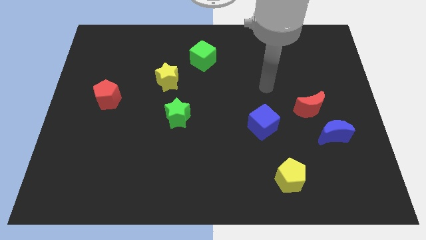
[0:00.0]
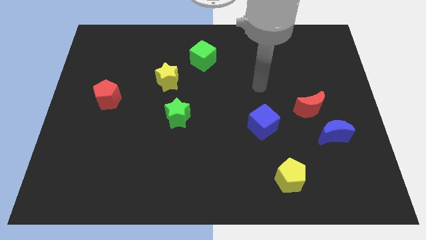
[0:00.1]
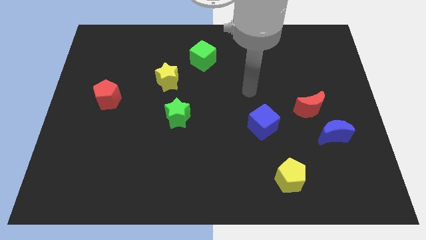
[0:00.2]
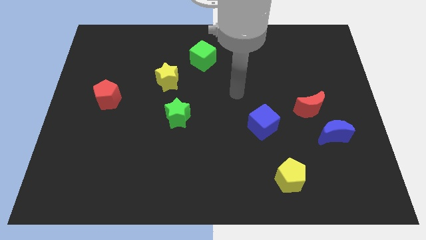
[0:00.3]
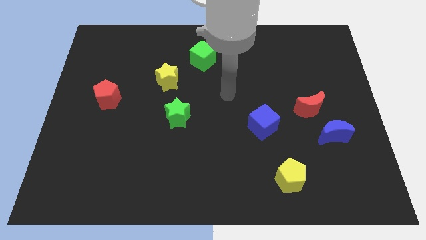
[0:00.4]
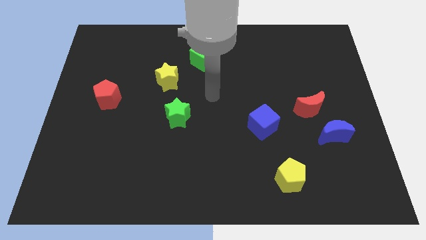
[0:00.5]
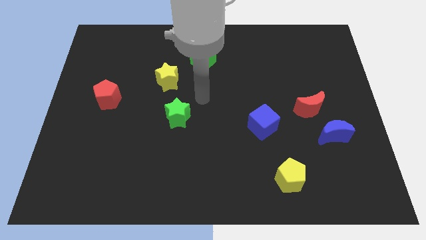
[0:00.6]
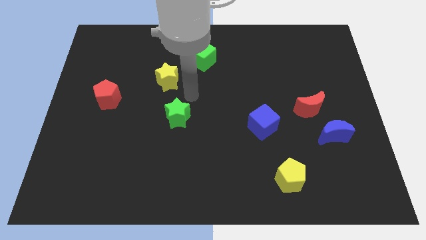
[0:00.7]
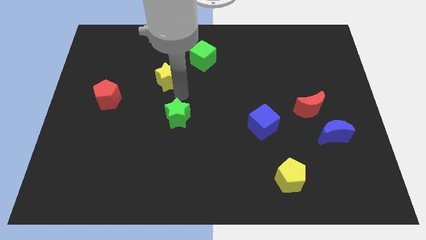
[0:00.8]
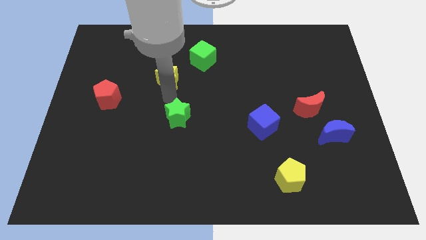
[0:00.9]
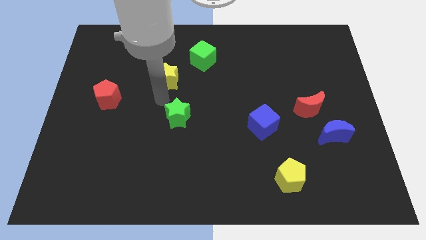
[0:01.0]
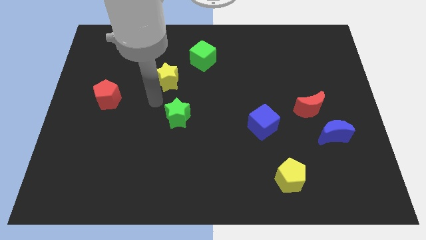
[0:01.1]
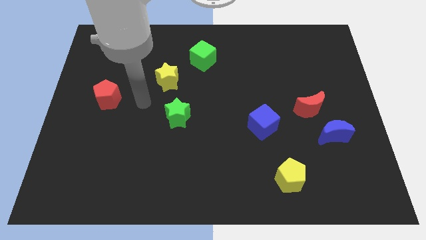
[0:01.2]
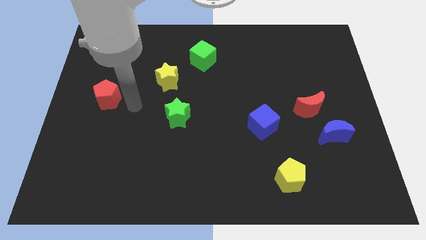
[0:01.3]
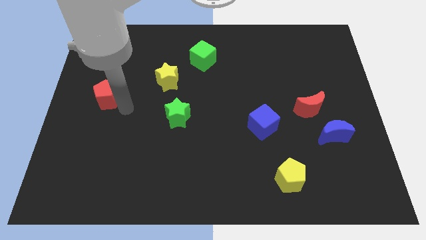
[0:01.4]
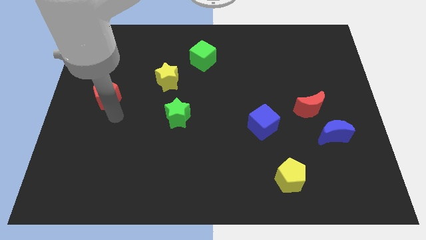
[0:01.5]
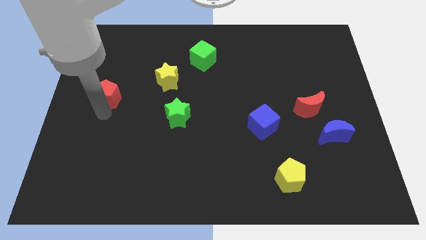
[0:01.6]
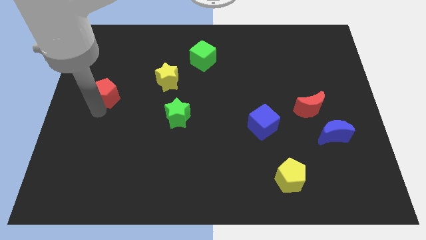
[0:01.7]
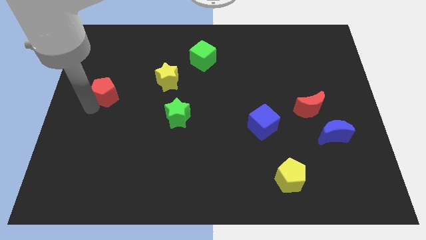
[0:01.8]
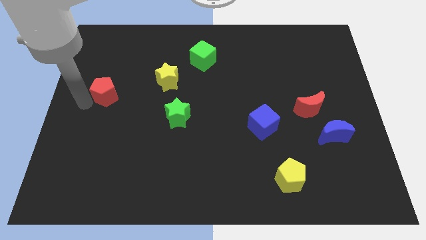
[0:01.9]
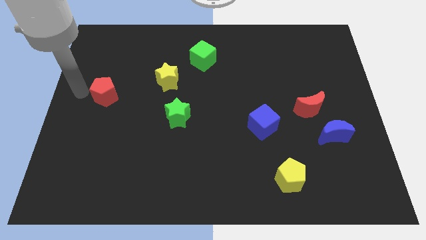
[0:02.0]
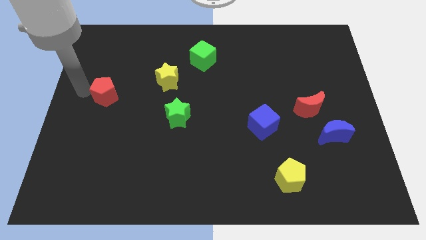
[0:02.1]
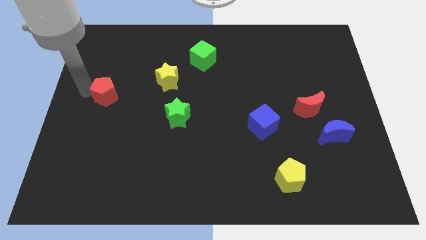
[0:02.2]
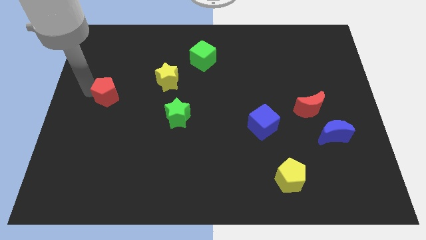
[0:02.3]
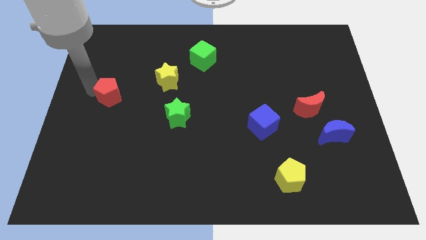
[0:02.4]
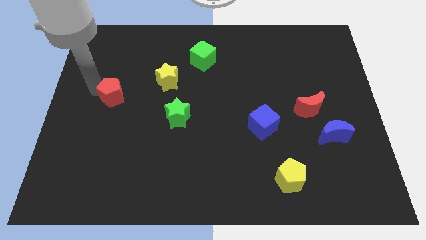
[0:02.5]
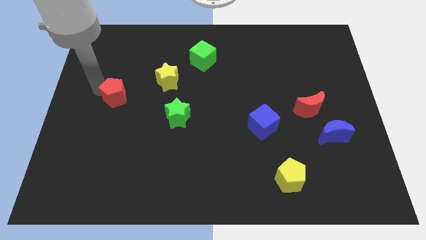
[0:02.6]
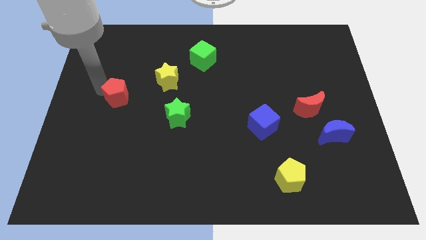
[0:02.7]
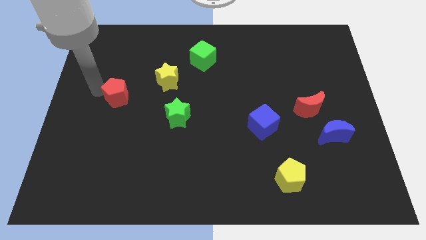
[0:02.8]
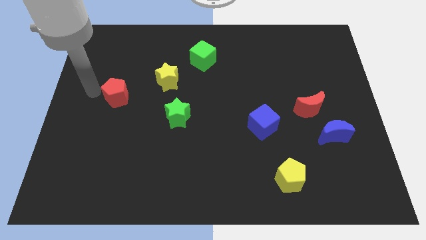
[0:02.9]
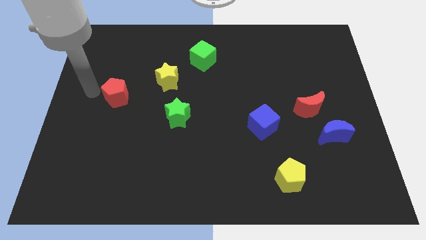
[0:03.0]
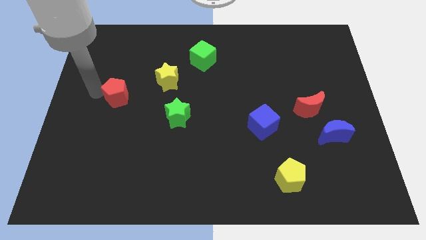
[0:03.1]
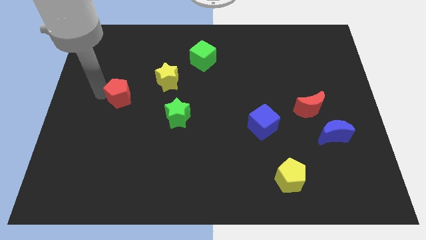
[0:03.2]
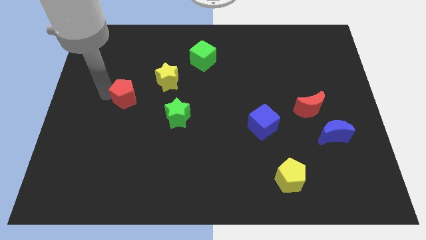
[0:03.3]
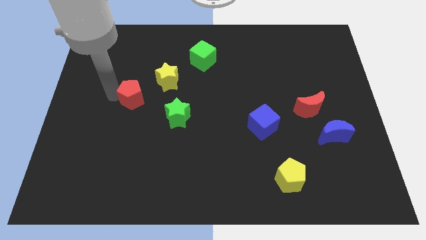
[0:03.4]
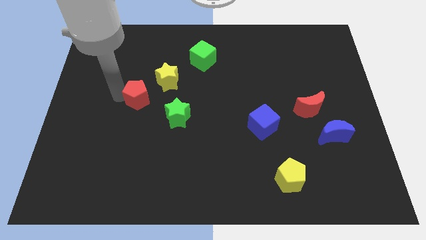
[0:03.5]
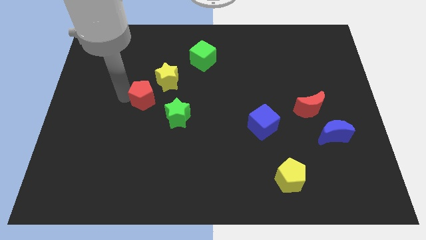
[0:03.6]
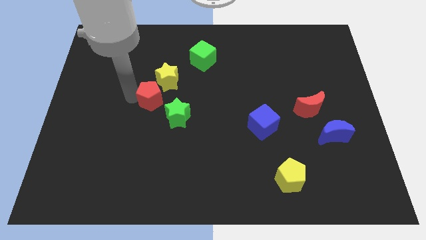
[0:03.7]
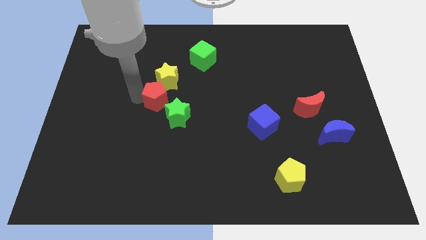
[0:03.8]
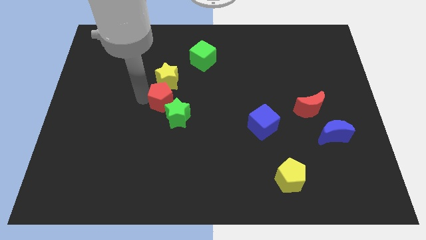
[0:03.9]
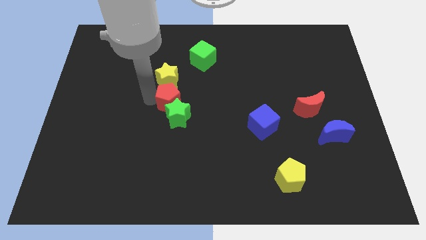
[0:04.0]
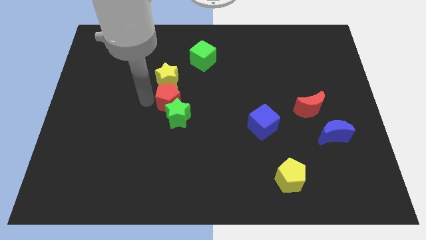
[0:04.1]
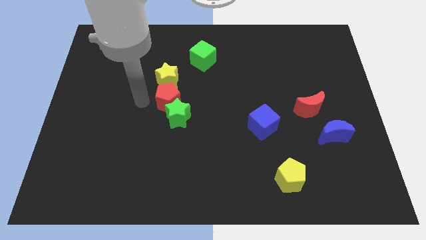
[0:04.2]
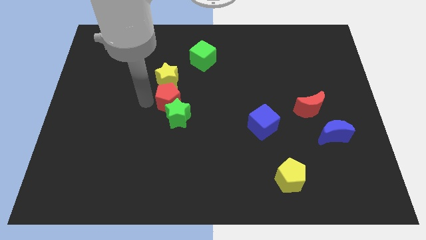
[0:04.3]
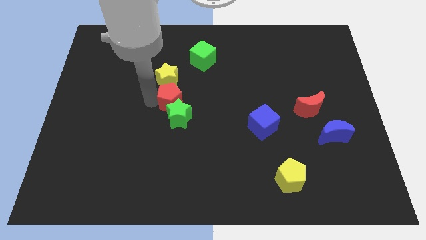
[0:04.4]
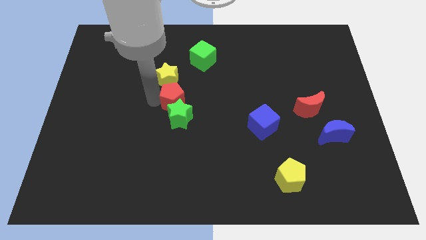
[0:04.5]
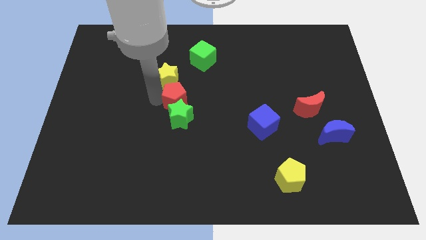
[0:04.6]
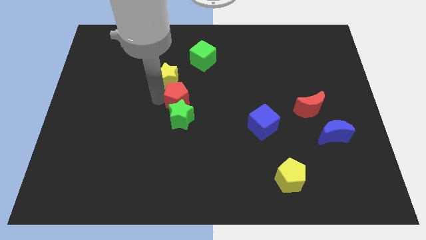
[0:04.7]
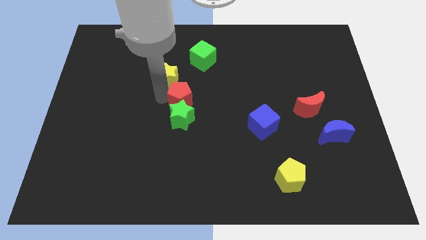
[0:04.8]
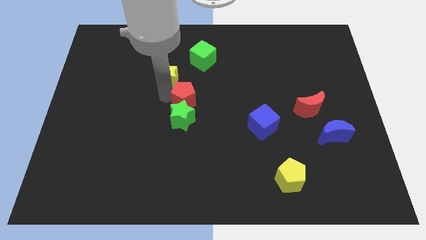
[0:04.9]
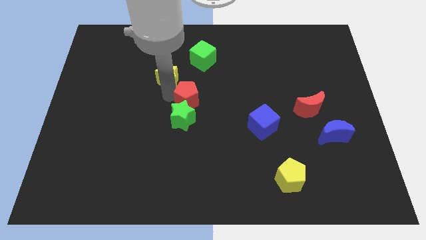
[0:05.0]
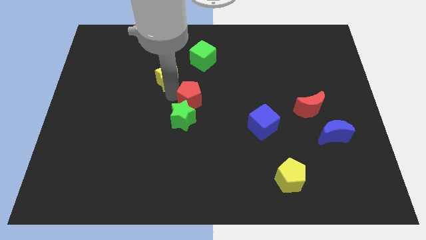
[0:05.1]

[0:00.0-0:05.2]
move the red pentagon to the right

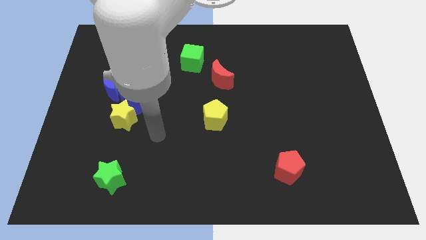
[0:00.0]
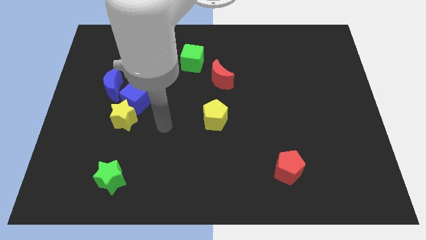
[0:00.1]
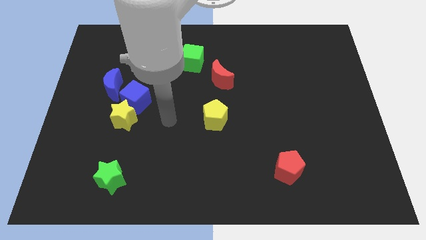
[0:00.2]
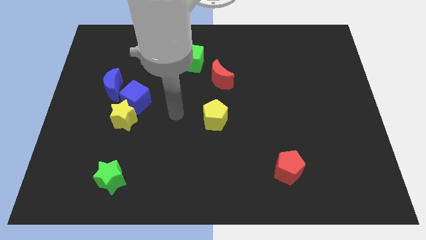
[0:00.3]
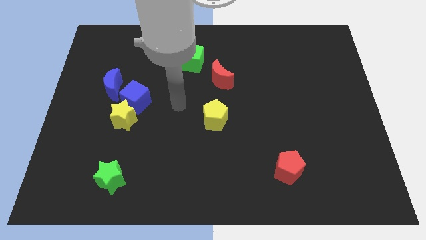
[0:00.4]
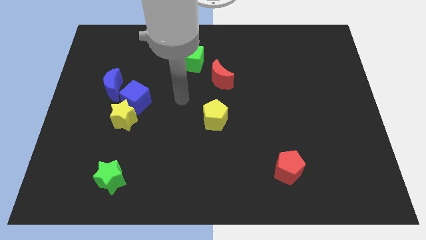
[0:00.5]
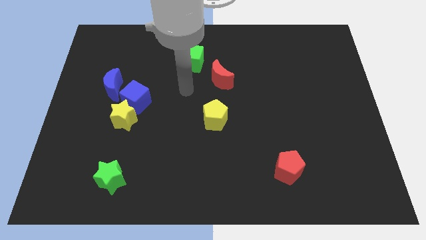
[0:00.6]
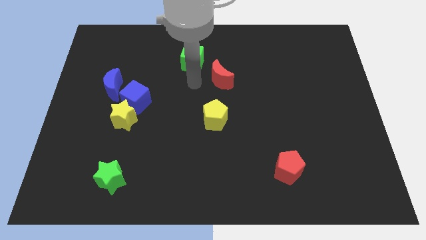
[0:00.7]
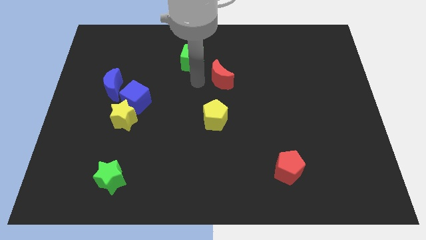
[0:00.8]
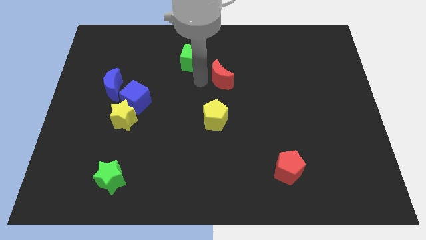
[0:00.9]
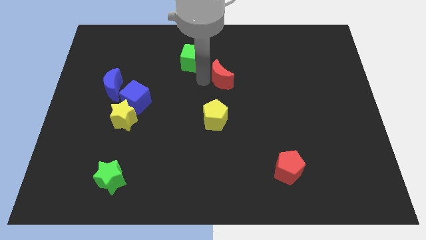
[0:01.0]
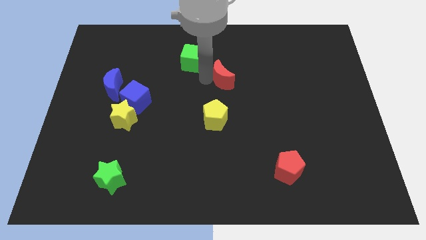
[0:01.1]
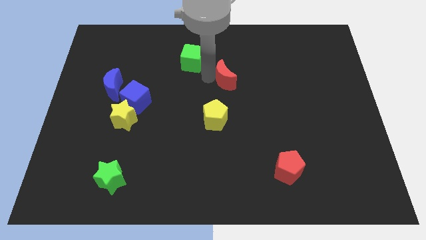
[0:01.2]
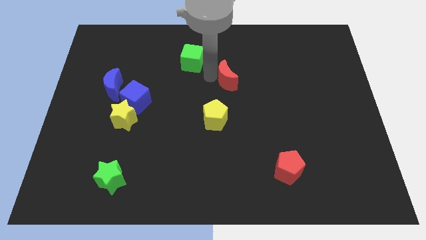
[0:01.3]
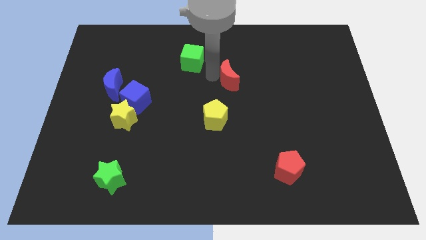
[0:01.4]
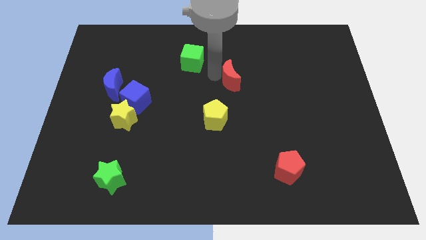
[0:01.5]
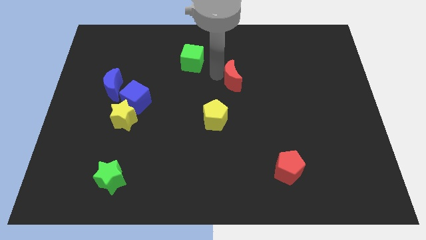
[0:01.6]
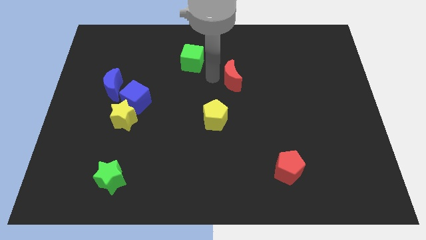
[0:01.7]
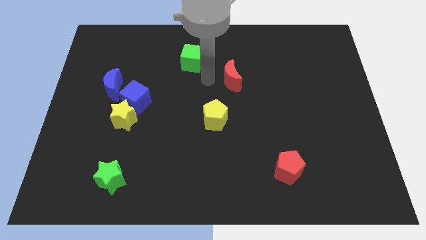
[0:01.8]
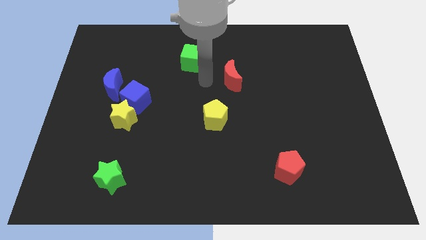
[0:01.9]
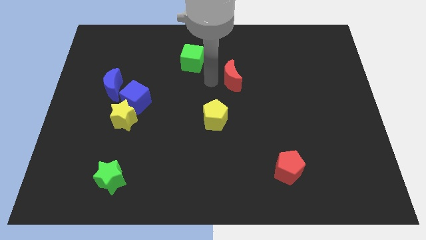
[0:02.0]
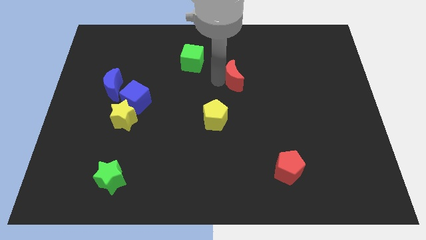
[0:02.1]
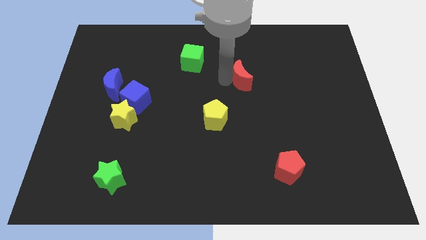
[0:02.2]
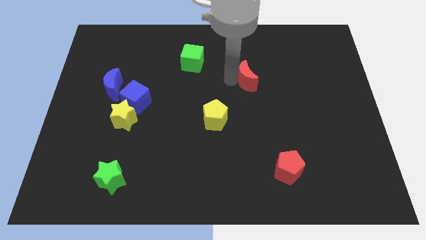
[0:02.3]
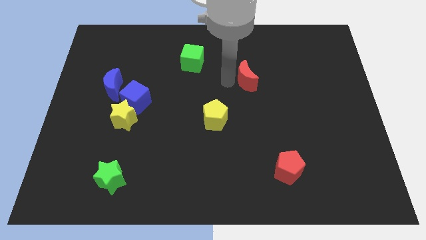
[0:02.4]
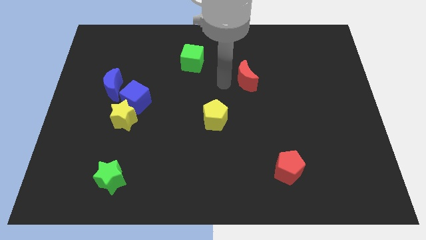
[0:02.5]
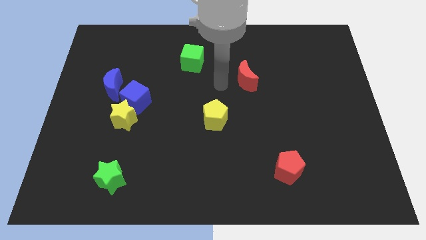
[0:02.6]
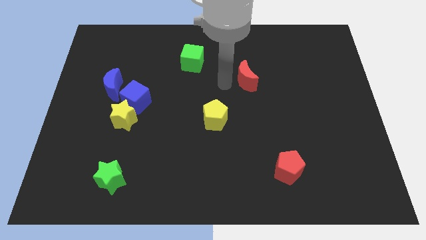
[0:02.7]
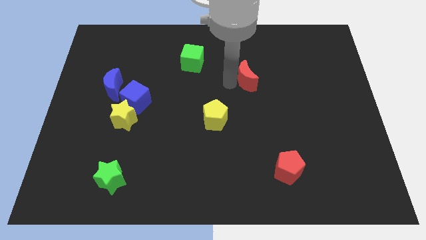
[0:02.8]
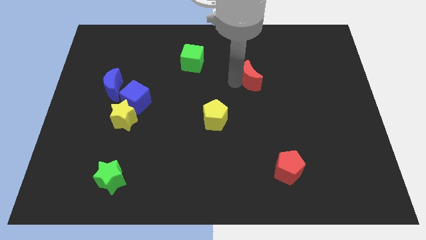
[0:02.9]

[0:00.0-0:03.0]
move the red moon slightly right

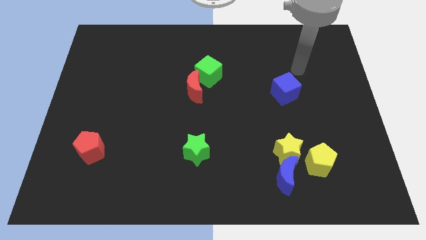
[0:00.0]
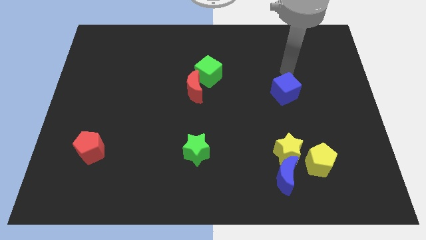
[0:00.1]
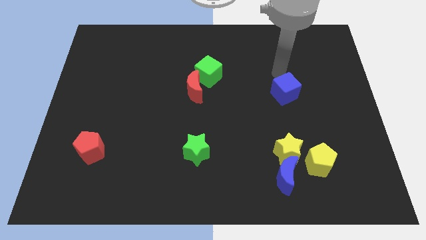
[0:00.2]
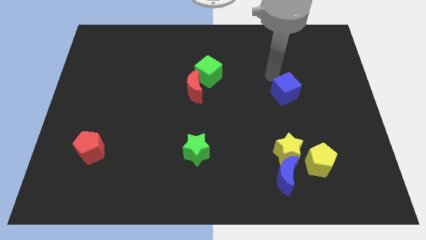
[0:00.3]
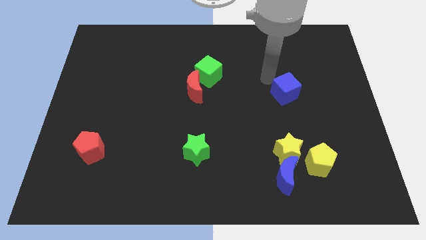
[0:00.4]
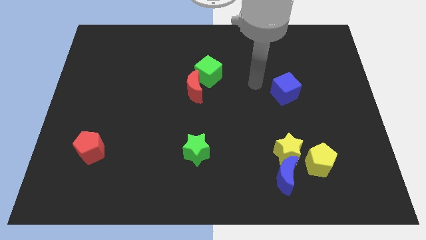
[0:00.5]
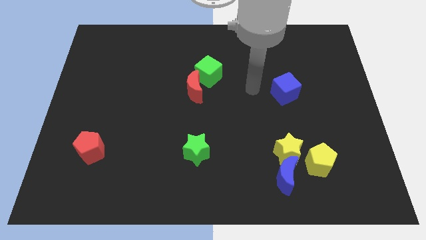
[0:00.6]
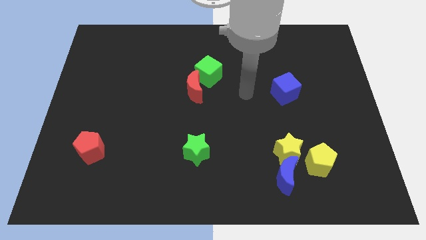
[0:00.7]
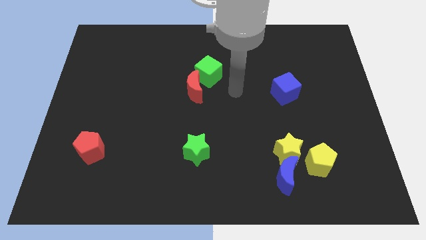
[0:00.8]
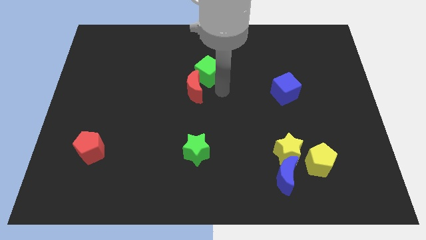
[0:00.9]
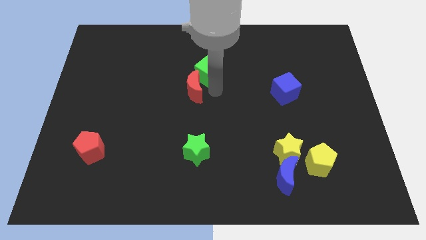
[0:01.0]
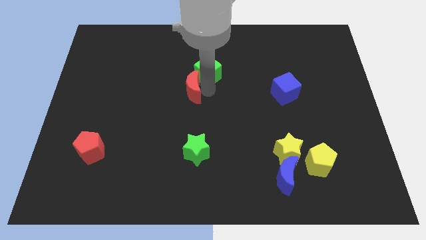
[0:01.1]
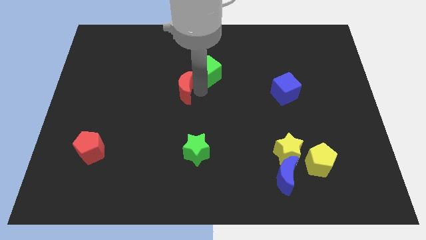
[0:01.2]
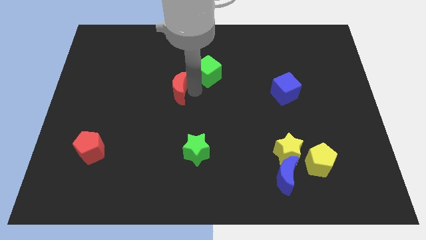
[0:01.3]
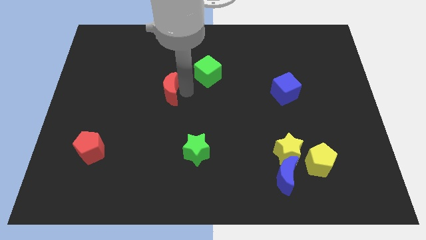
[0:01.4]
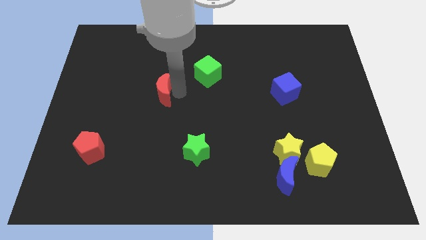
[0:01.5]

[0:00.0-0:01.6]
move the red moon to the left a little bit
